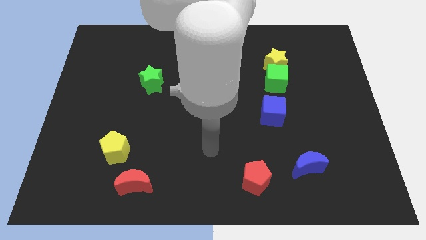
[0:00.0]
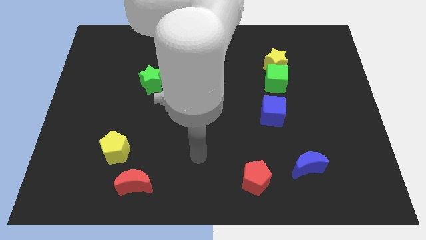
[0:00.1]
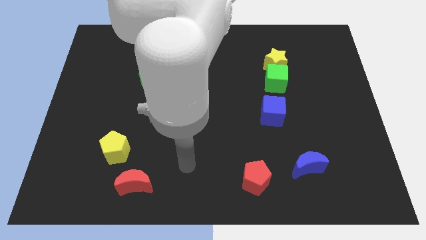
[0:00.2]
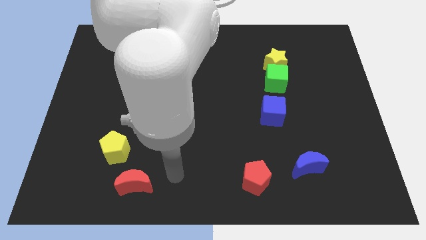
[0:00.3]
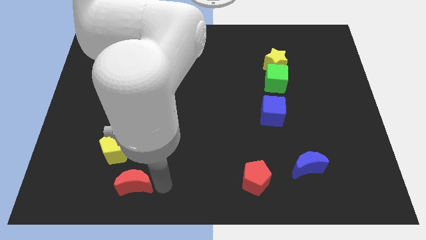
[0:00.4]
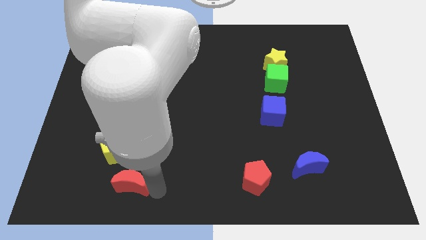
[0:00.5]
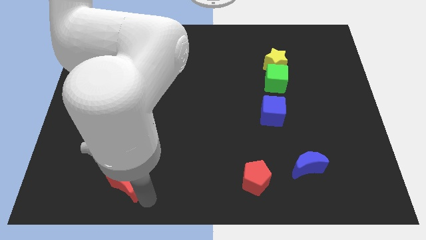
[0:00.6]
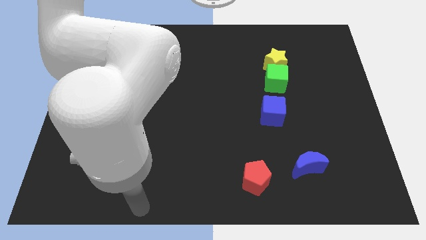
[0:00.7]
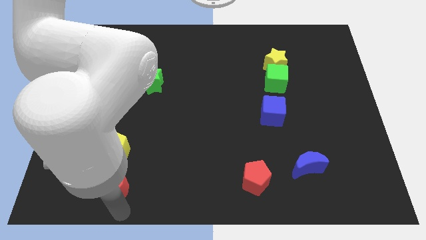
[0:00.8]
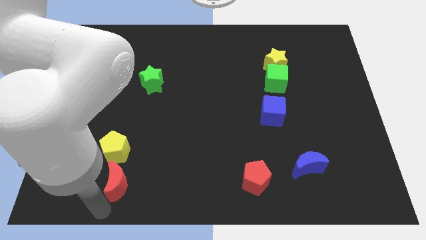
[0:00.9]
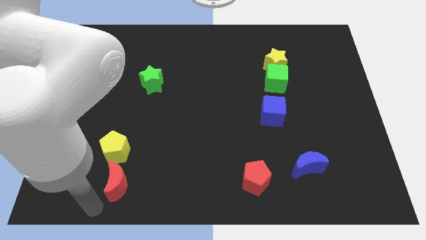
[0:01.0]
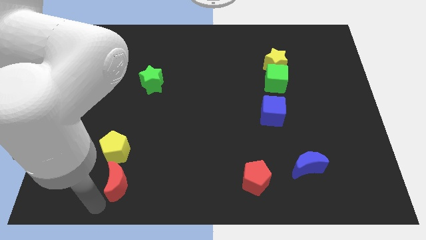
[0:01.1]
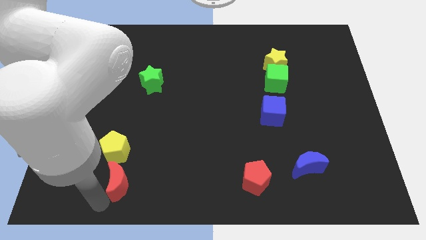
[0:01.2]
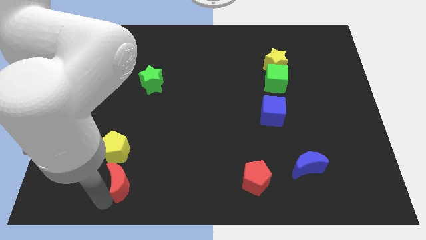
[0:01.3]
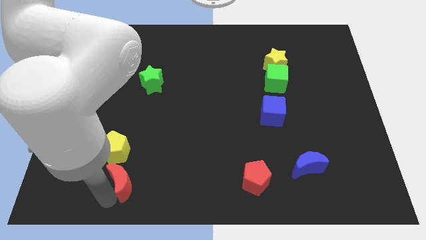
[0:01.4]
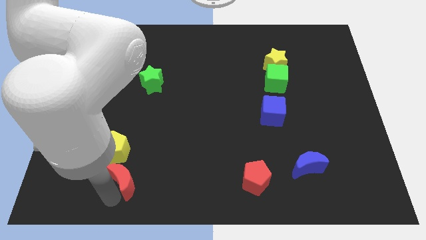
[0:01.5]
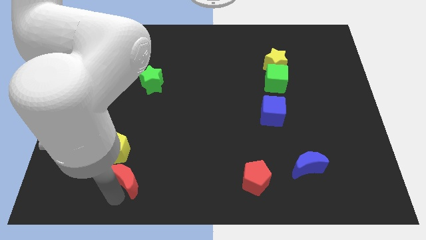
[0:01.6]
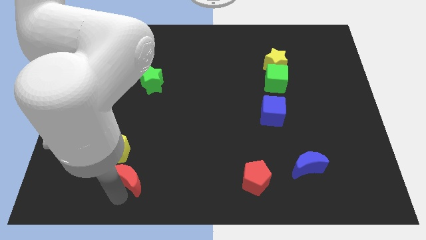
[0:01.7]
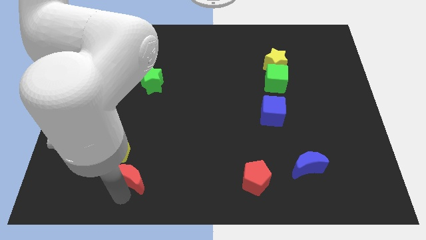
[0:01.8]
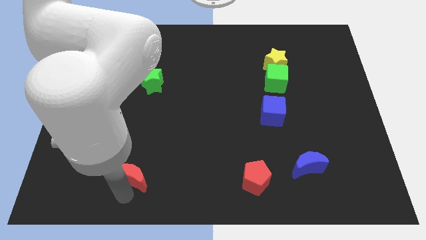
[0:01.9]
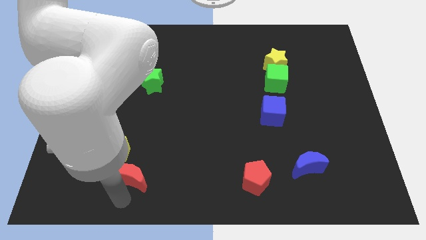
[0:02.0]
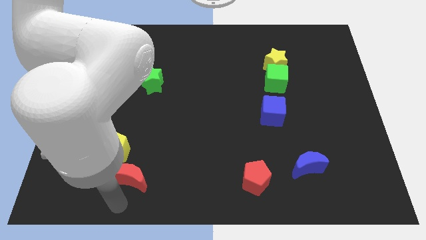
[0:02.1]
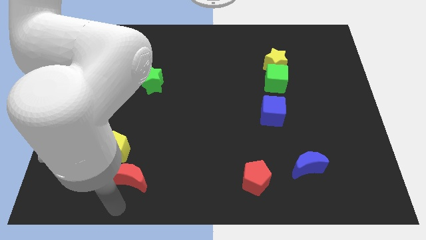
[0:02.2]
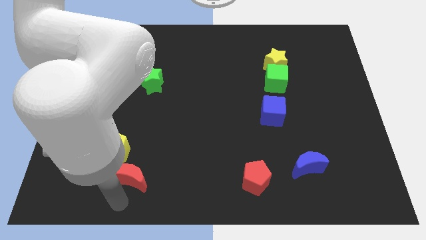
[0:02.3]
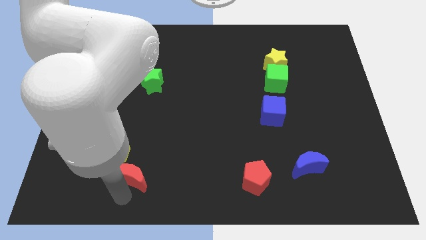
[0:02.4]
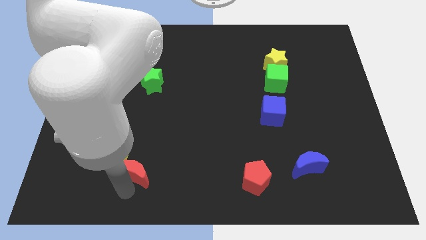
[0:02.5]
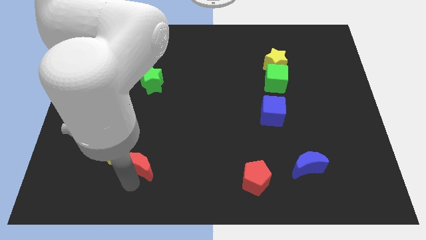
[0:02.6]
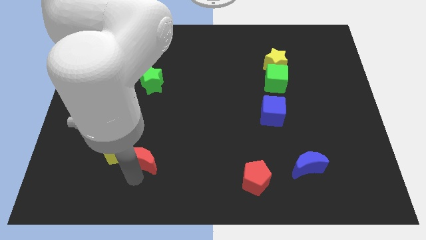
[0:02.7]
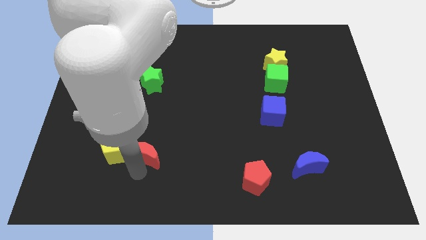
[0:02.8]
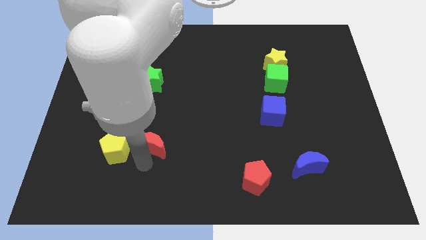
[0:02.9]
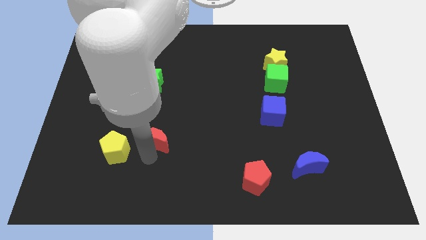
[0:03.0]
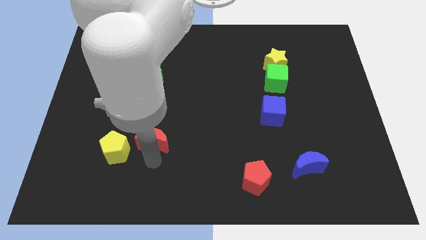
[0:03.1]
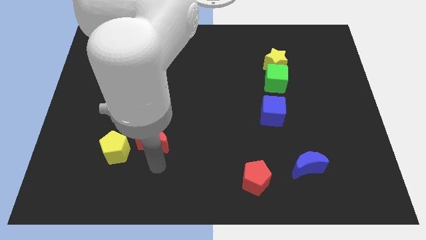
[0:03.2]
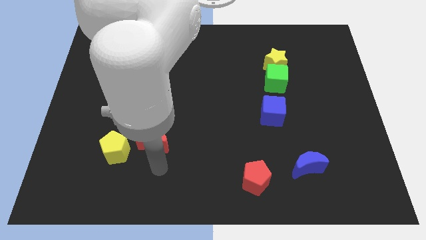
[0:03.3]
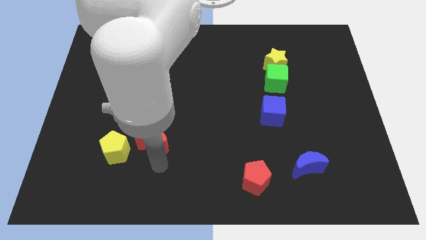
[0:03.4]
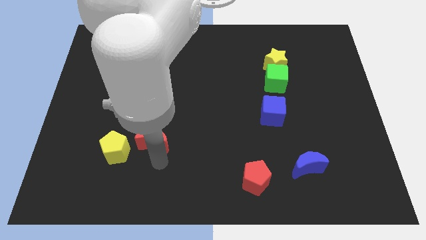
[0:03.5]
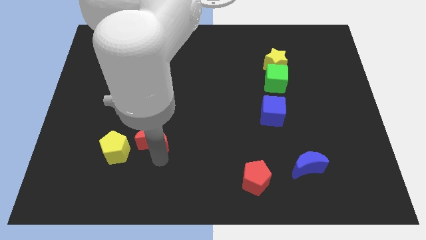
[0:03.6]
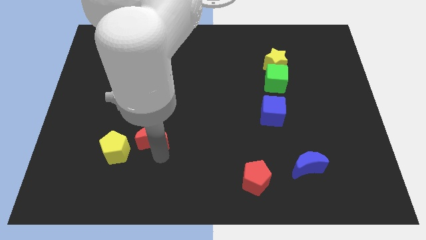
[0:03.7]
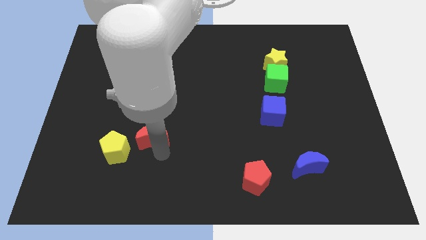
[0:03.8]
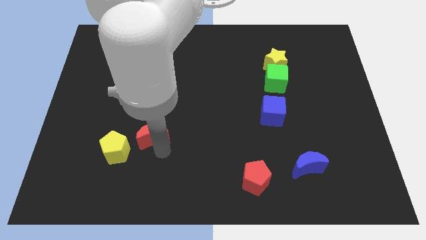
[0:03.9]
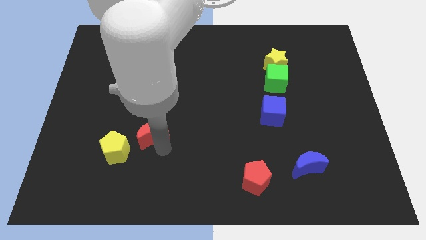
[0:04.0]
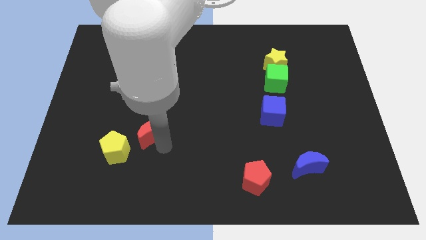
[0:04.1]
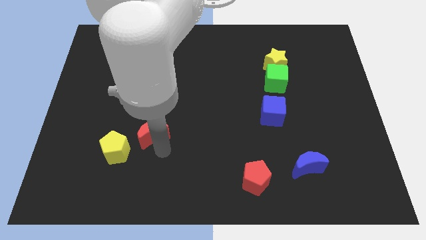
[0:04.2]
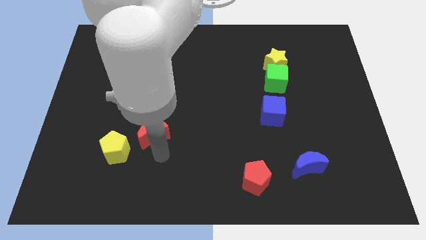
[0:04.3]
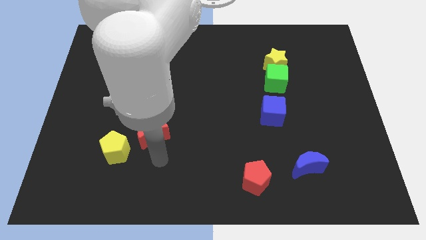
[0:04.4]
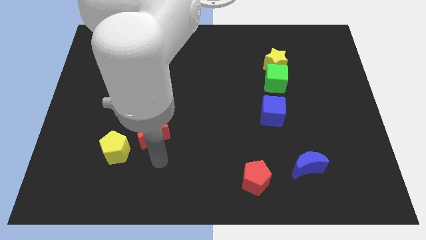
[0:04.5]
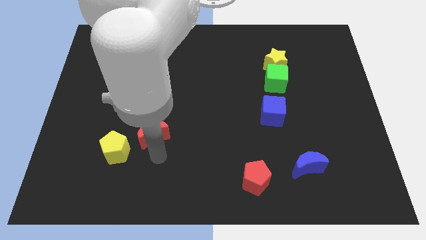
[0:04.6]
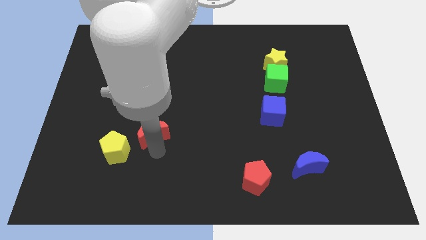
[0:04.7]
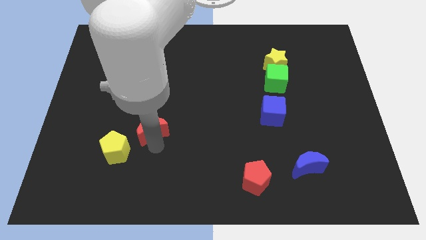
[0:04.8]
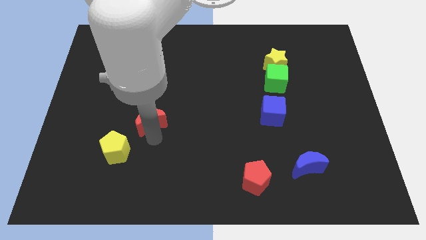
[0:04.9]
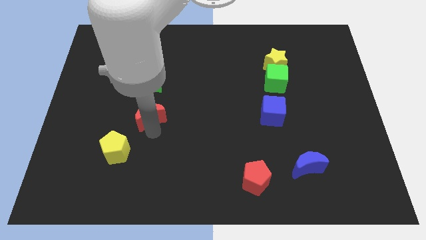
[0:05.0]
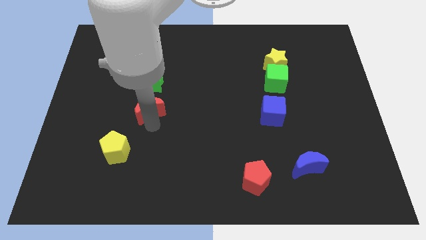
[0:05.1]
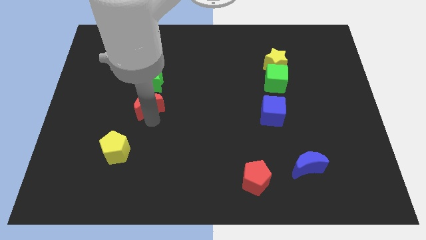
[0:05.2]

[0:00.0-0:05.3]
push the red moon upwards

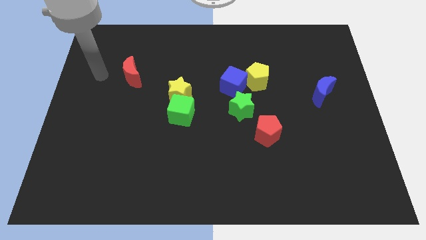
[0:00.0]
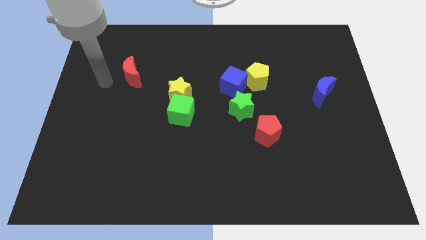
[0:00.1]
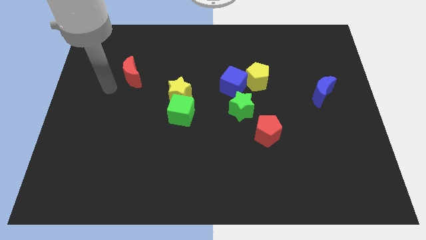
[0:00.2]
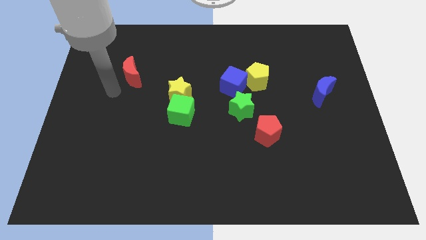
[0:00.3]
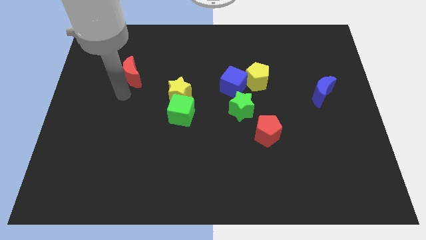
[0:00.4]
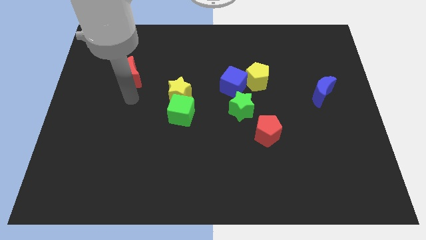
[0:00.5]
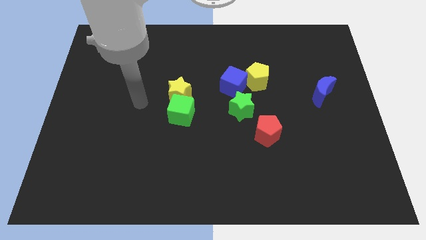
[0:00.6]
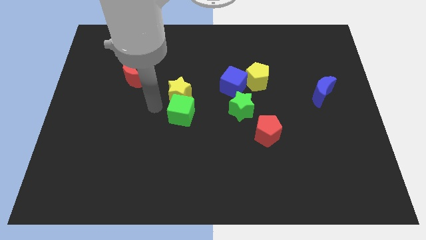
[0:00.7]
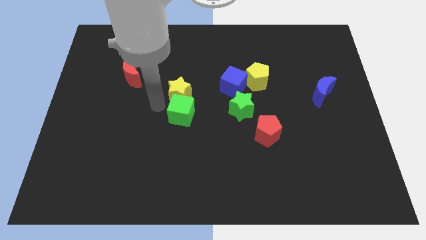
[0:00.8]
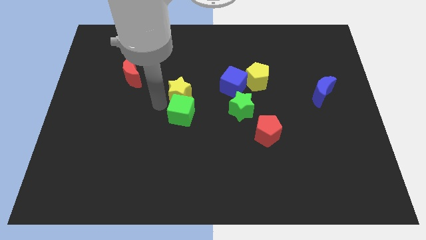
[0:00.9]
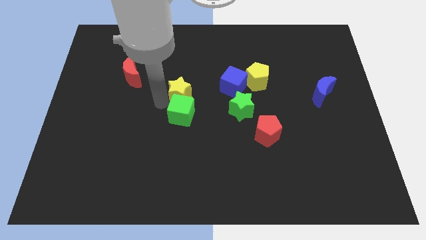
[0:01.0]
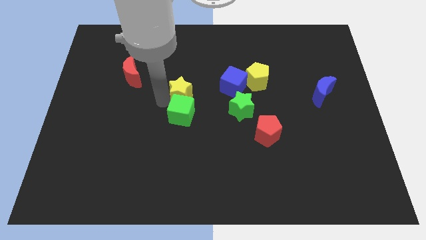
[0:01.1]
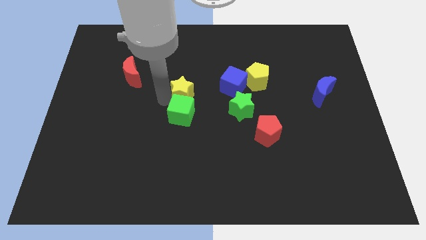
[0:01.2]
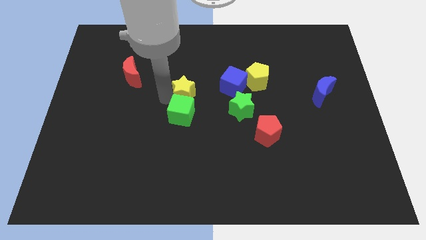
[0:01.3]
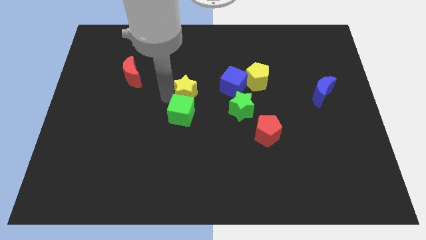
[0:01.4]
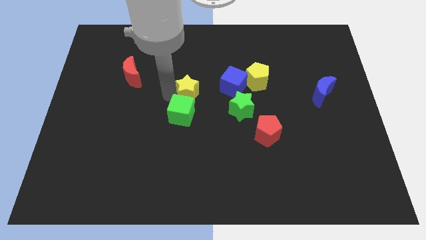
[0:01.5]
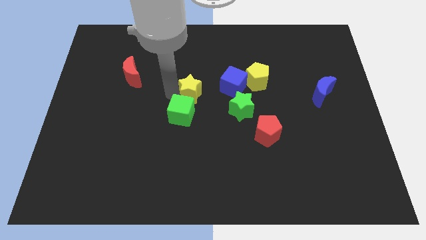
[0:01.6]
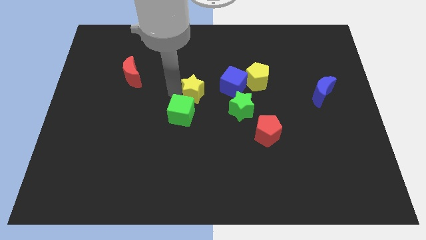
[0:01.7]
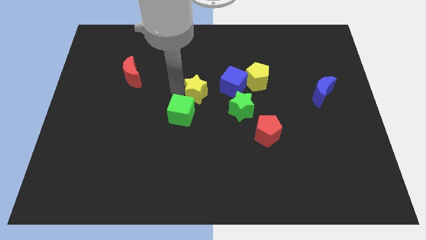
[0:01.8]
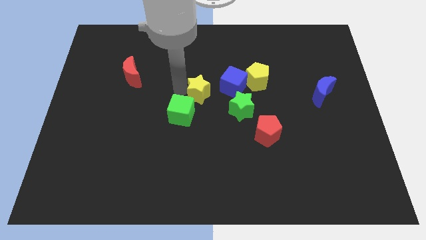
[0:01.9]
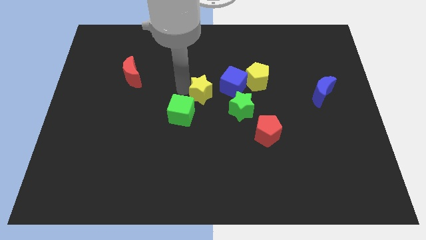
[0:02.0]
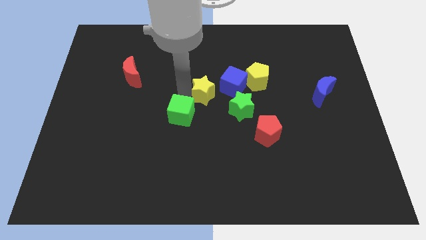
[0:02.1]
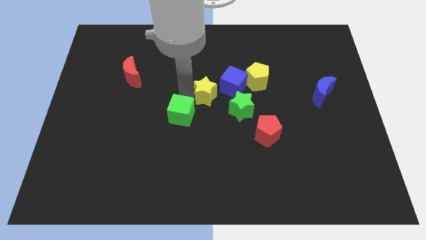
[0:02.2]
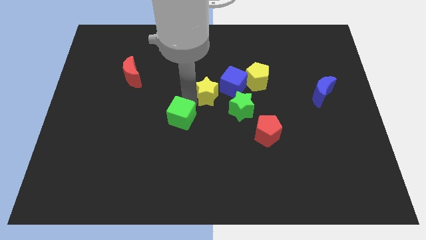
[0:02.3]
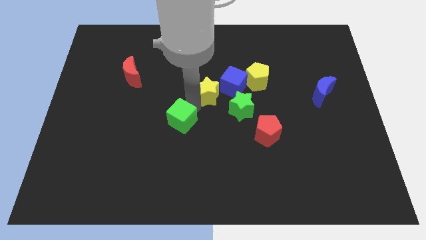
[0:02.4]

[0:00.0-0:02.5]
slide the yellow star right a little

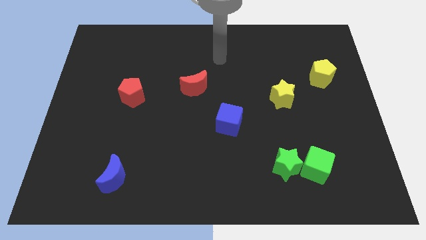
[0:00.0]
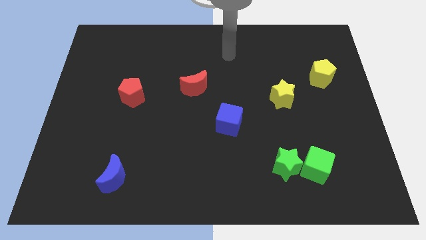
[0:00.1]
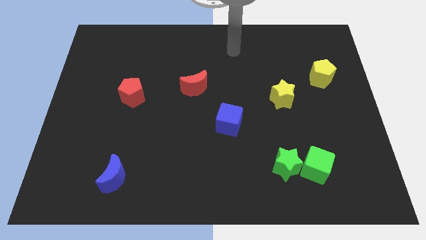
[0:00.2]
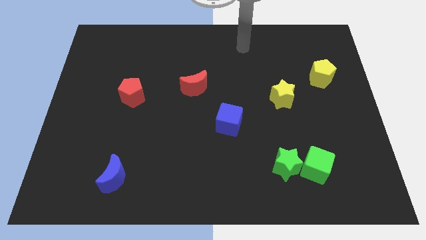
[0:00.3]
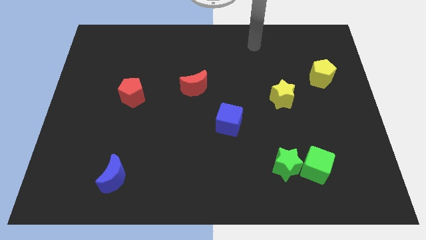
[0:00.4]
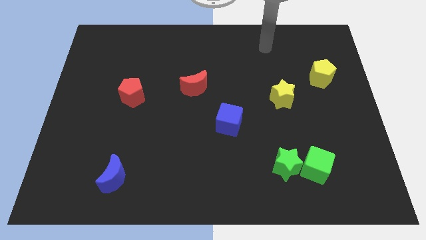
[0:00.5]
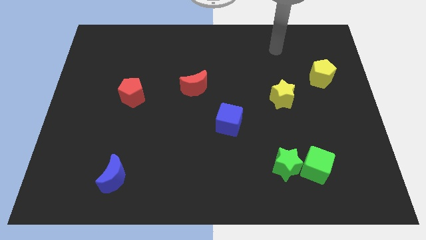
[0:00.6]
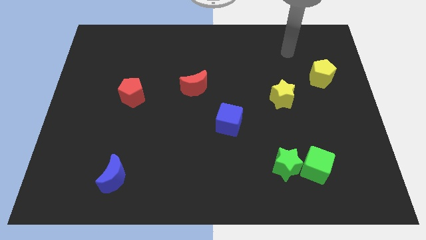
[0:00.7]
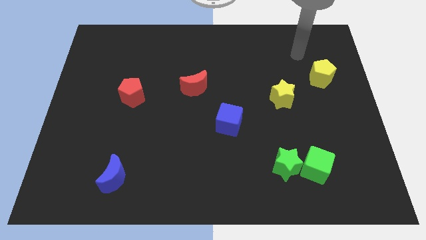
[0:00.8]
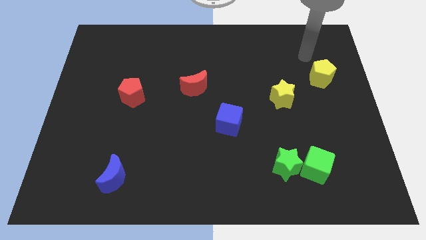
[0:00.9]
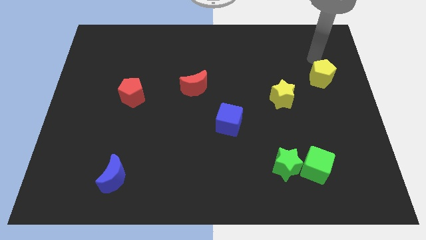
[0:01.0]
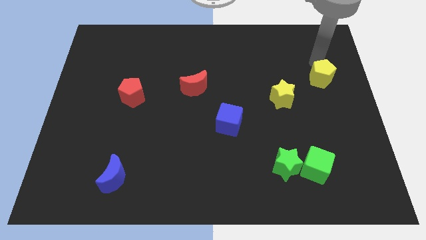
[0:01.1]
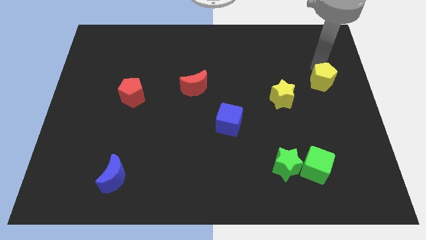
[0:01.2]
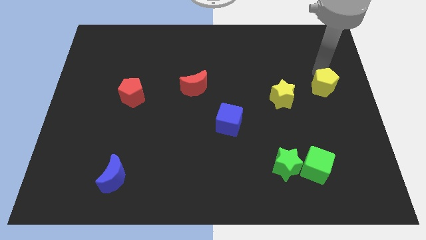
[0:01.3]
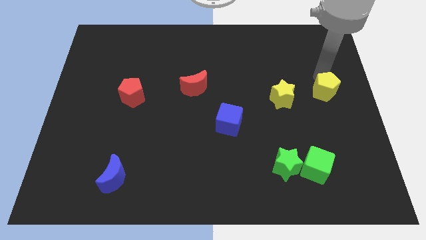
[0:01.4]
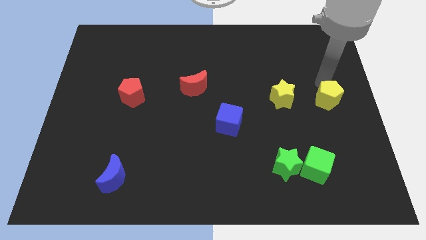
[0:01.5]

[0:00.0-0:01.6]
push the yellow pentagon somewhat downwards
